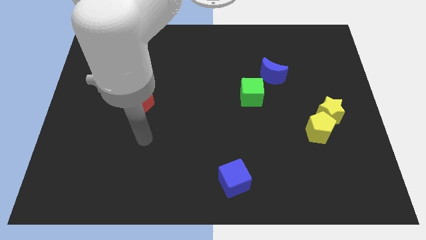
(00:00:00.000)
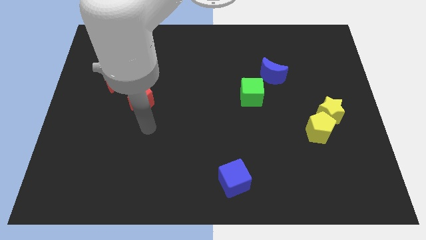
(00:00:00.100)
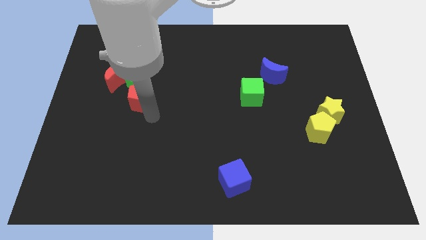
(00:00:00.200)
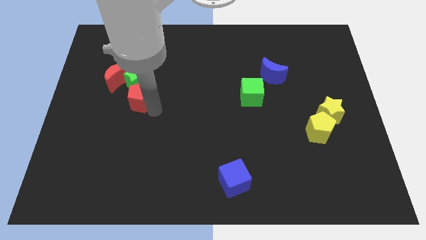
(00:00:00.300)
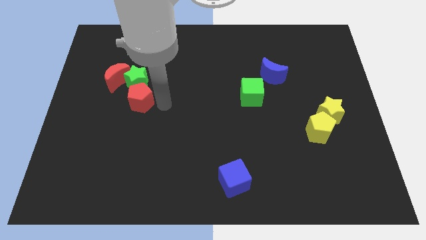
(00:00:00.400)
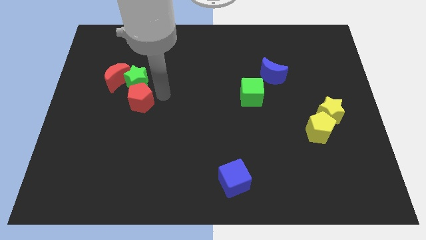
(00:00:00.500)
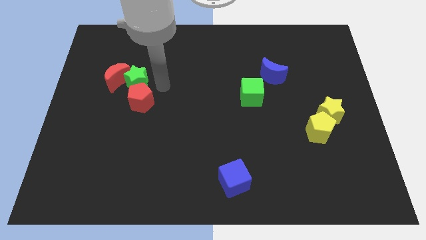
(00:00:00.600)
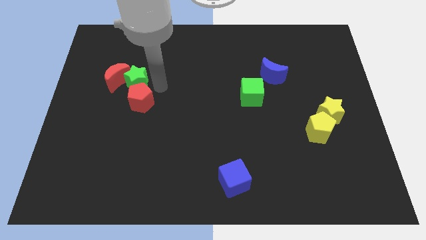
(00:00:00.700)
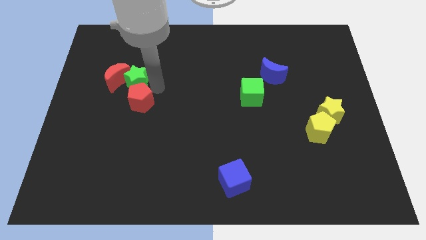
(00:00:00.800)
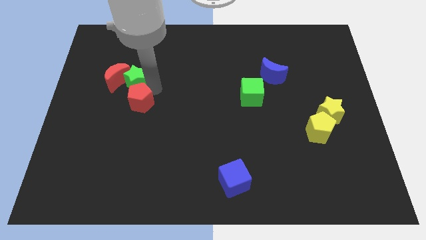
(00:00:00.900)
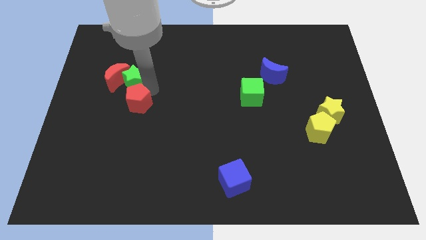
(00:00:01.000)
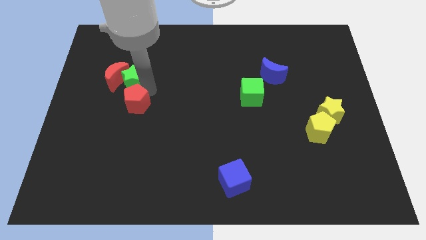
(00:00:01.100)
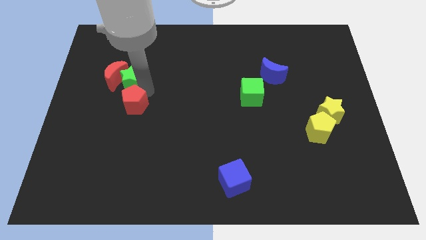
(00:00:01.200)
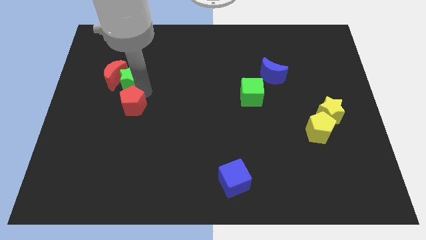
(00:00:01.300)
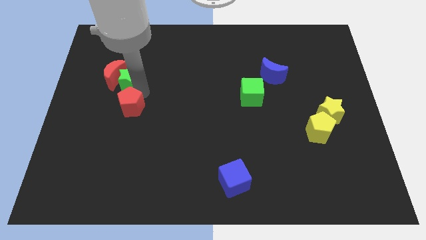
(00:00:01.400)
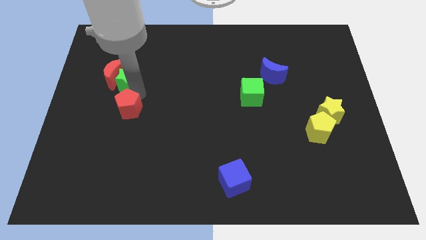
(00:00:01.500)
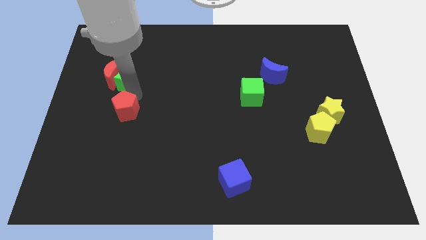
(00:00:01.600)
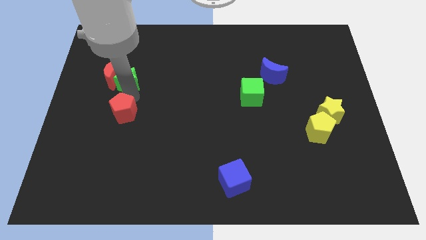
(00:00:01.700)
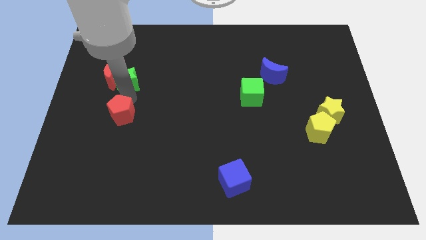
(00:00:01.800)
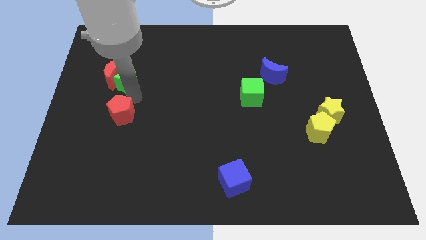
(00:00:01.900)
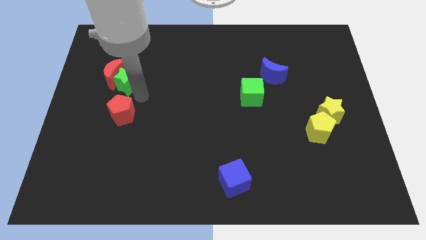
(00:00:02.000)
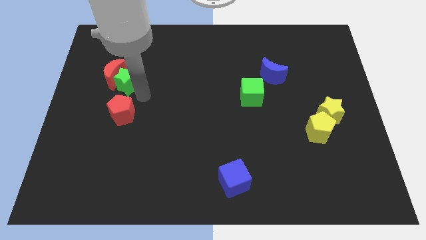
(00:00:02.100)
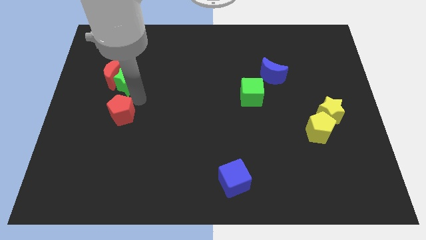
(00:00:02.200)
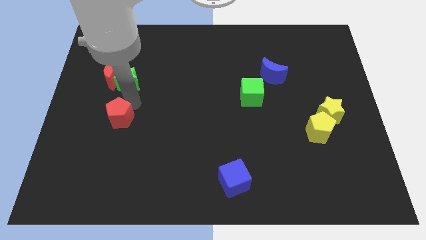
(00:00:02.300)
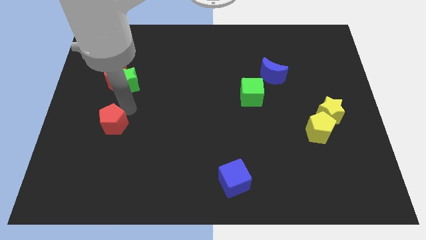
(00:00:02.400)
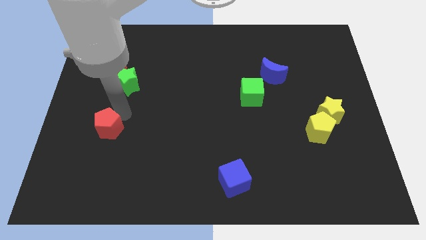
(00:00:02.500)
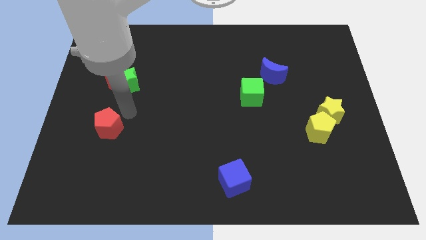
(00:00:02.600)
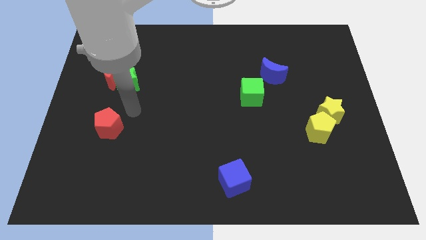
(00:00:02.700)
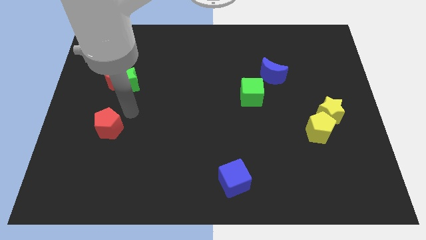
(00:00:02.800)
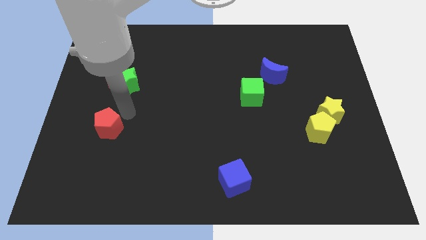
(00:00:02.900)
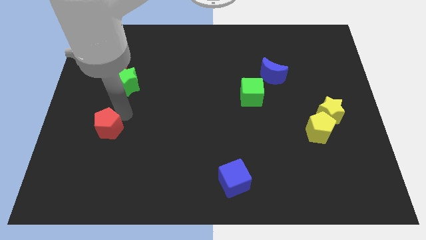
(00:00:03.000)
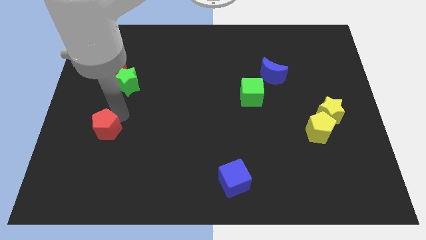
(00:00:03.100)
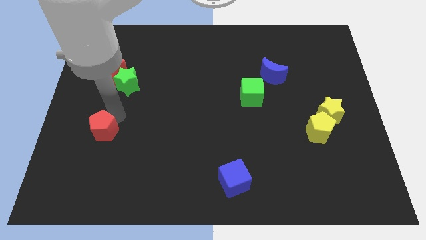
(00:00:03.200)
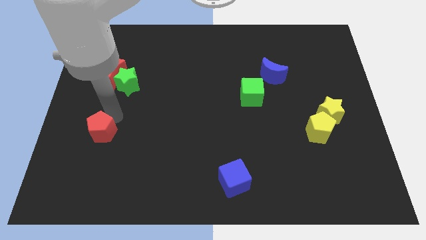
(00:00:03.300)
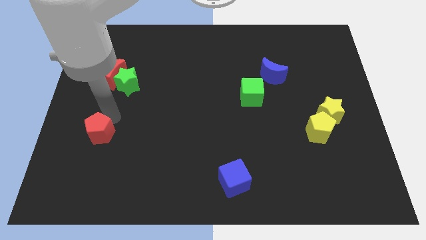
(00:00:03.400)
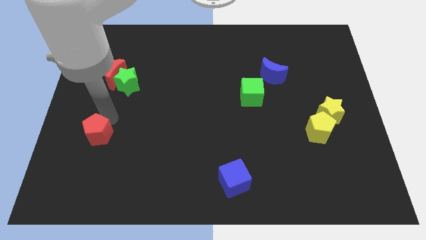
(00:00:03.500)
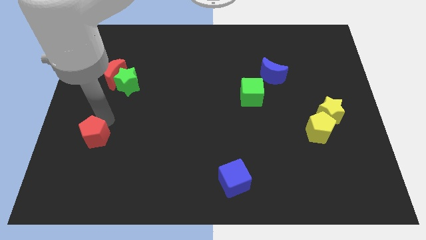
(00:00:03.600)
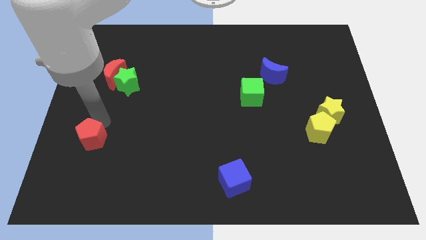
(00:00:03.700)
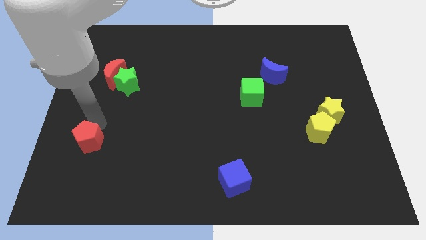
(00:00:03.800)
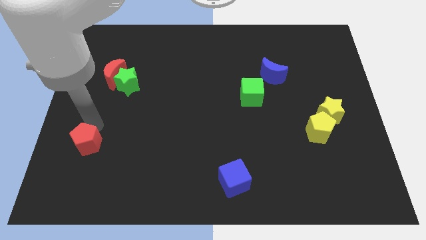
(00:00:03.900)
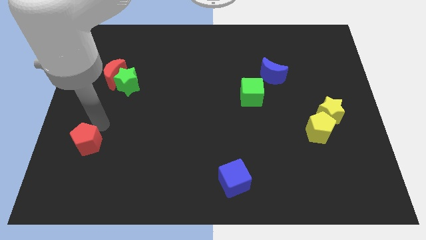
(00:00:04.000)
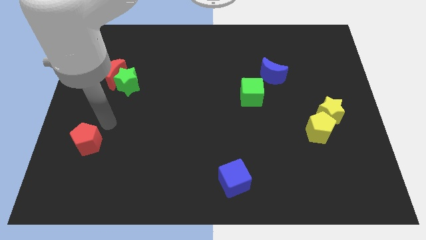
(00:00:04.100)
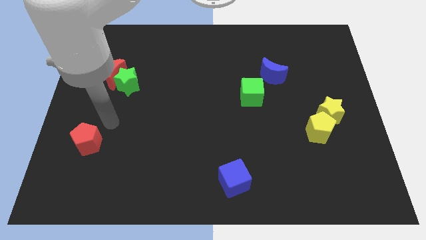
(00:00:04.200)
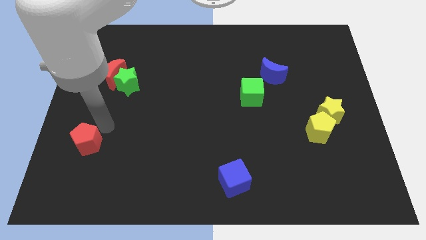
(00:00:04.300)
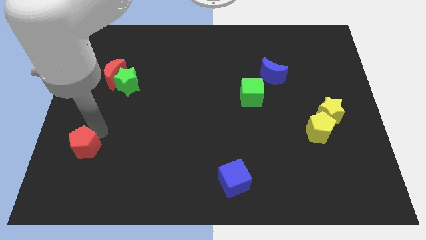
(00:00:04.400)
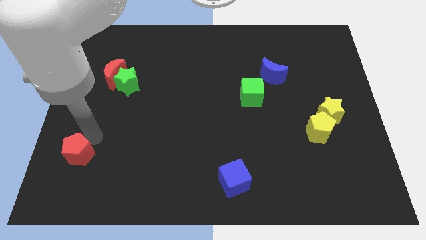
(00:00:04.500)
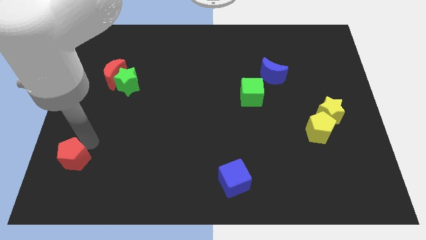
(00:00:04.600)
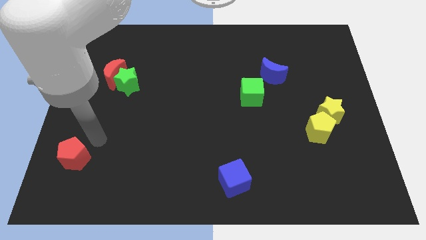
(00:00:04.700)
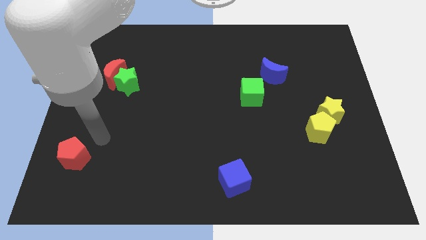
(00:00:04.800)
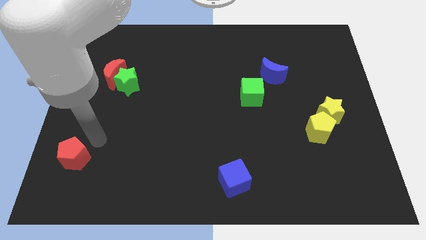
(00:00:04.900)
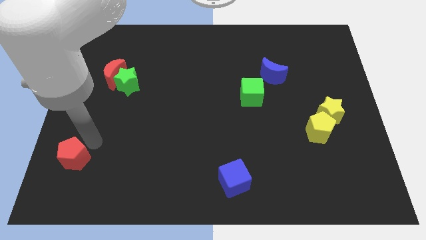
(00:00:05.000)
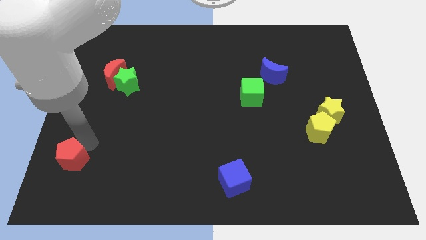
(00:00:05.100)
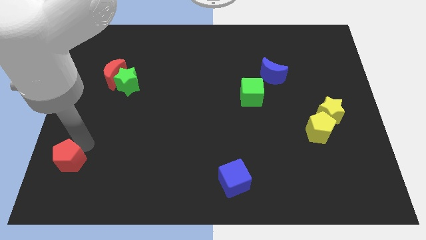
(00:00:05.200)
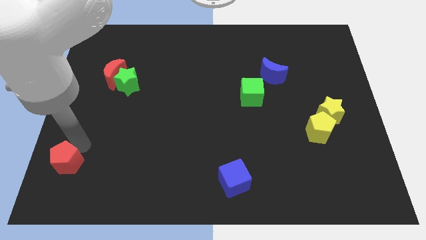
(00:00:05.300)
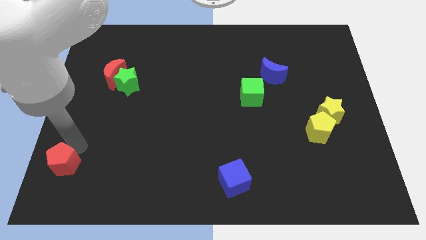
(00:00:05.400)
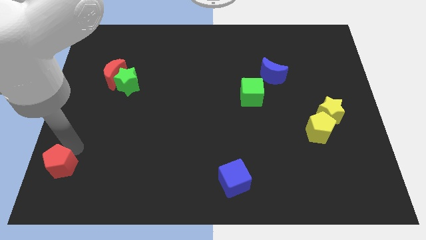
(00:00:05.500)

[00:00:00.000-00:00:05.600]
move the red pentagon to the bottom left corner

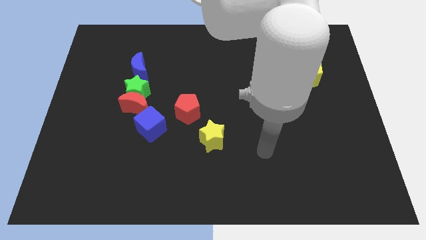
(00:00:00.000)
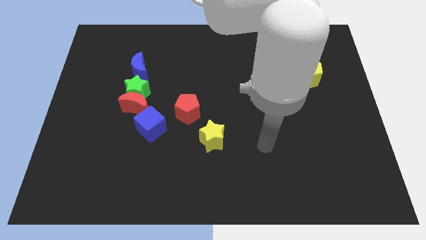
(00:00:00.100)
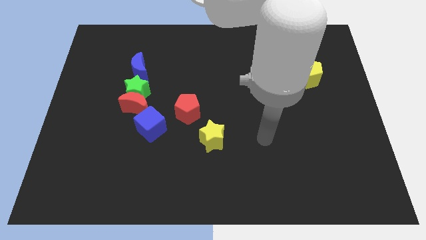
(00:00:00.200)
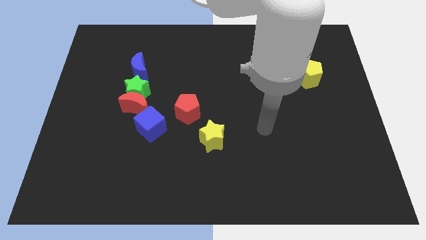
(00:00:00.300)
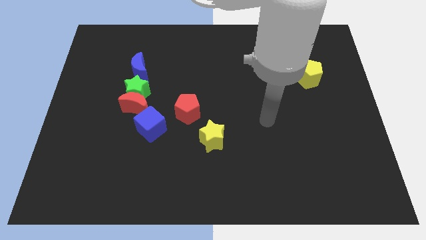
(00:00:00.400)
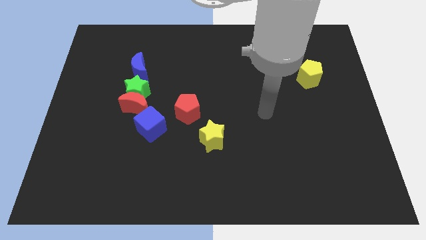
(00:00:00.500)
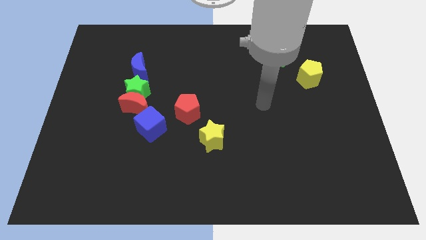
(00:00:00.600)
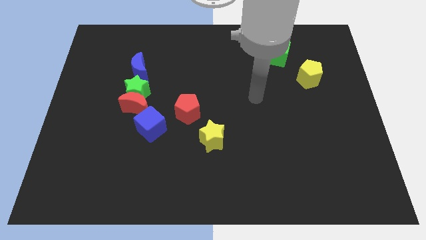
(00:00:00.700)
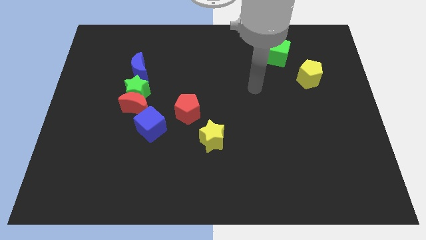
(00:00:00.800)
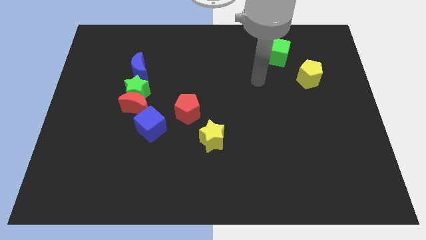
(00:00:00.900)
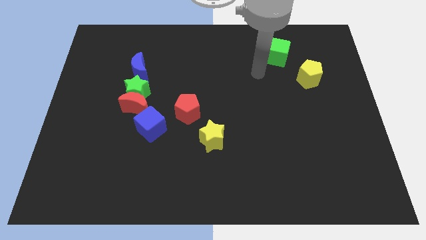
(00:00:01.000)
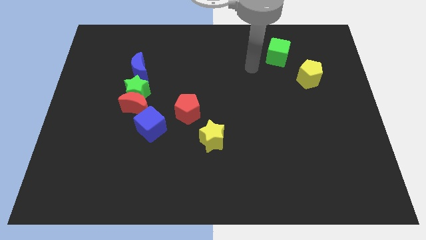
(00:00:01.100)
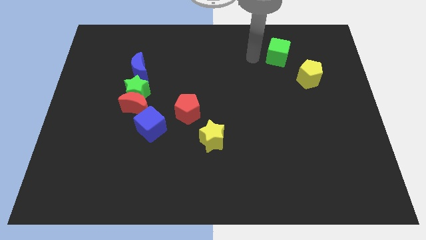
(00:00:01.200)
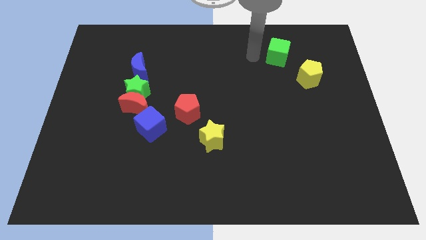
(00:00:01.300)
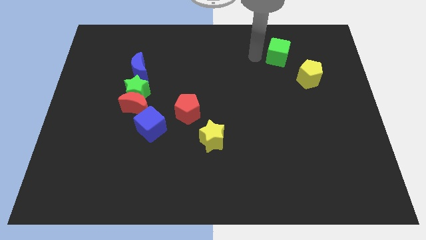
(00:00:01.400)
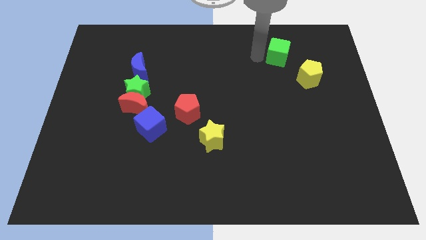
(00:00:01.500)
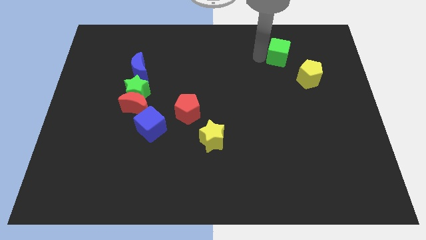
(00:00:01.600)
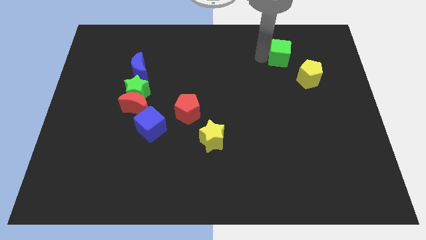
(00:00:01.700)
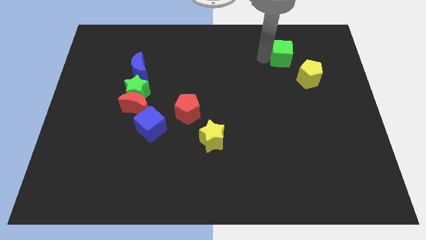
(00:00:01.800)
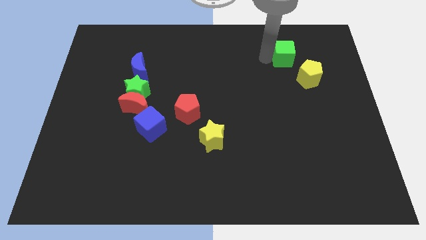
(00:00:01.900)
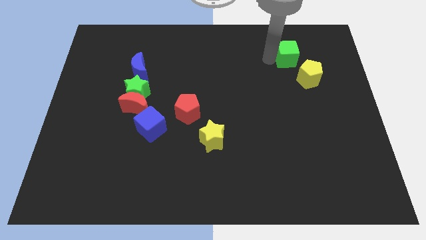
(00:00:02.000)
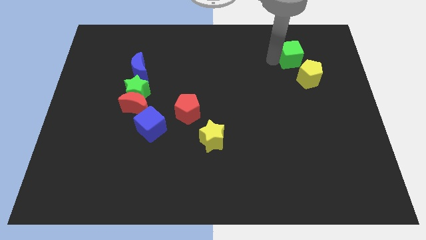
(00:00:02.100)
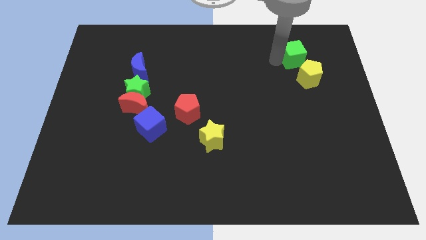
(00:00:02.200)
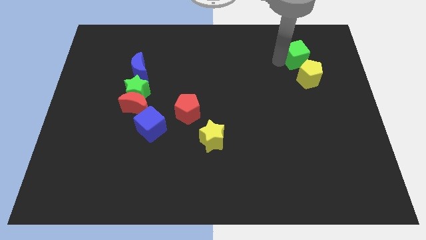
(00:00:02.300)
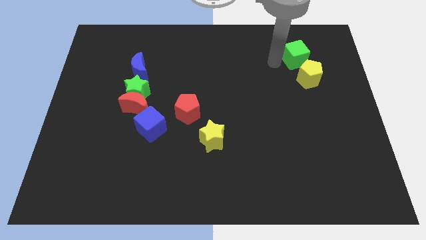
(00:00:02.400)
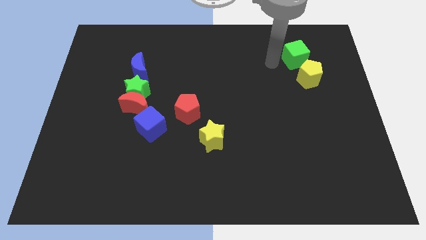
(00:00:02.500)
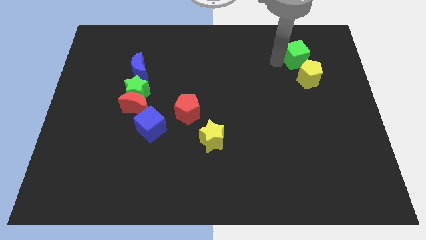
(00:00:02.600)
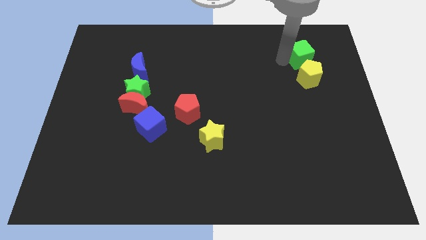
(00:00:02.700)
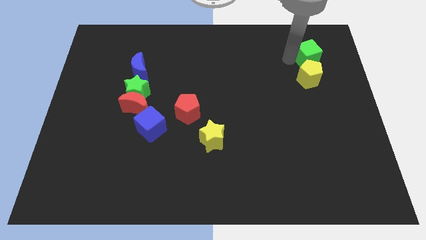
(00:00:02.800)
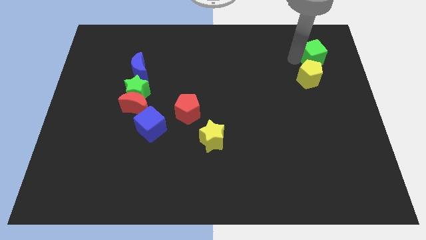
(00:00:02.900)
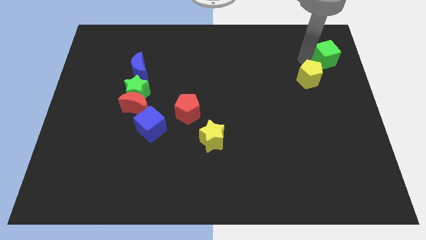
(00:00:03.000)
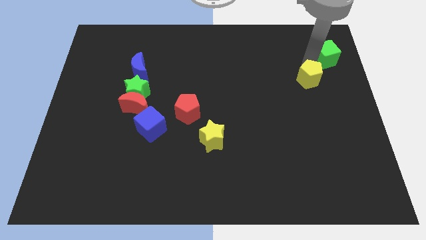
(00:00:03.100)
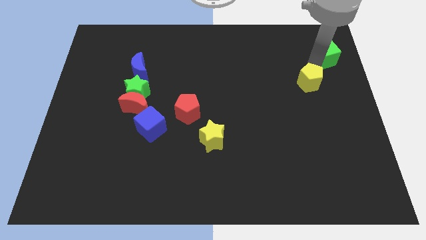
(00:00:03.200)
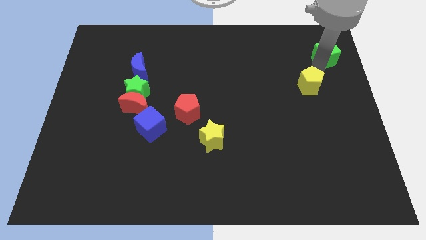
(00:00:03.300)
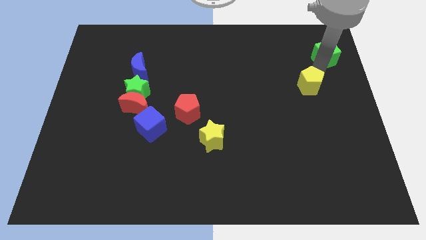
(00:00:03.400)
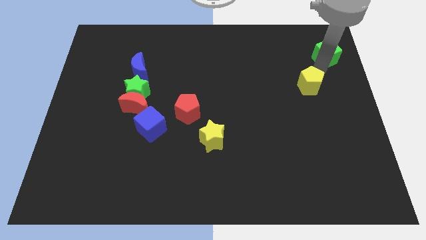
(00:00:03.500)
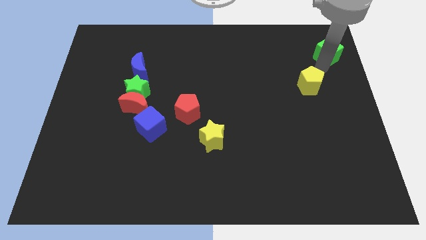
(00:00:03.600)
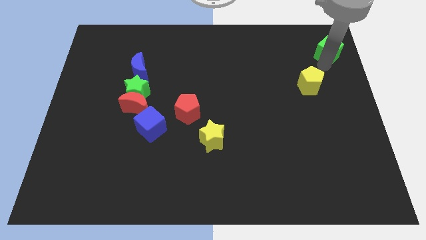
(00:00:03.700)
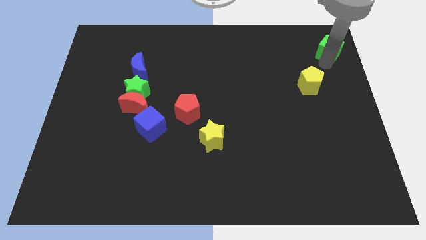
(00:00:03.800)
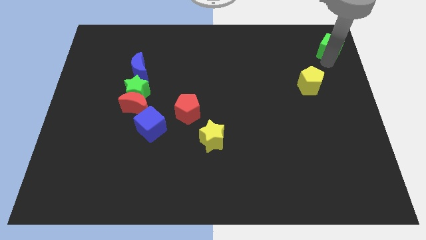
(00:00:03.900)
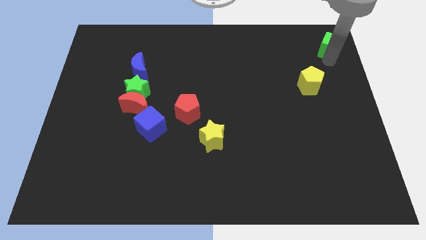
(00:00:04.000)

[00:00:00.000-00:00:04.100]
slide the green cube to the upper right corner
